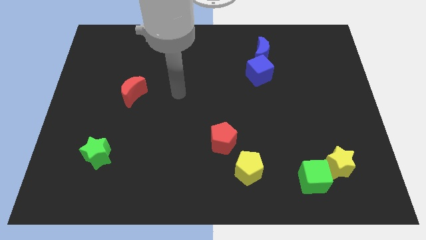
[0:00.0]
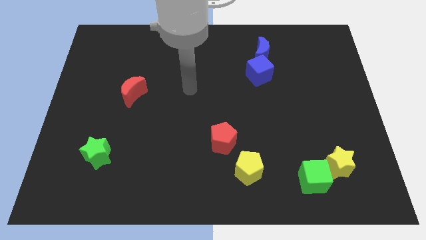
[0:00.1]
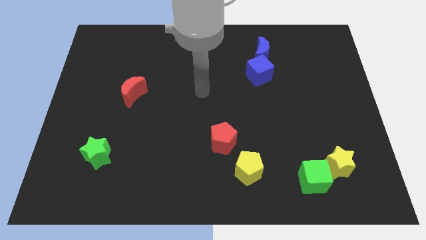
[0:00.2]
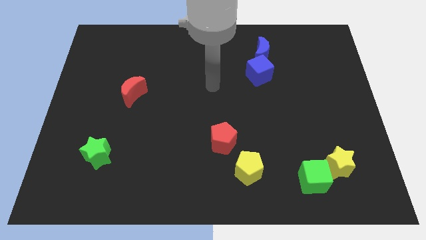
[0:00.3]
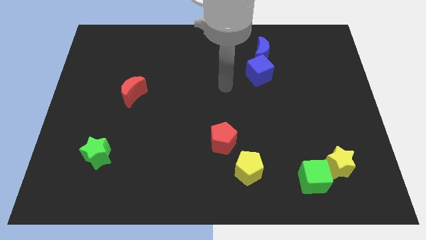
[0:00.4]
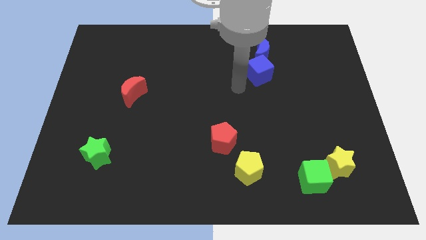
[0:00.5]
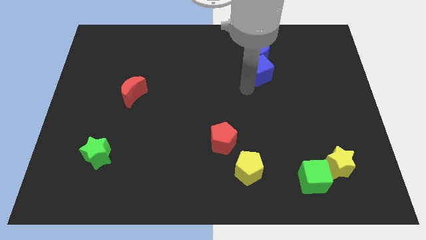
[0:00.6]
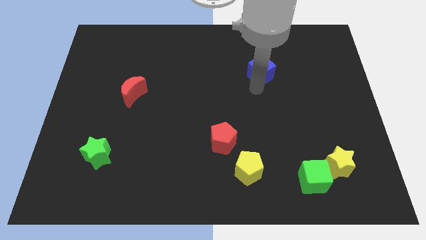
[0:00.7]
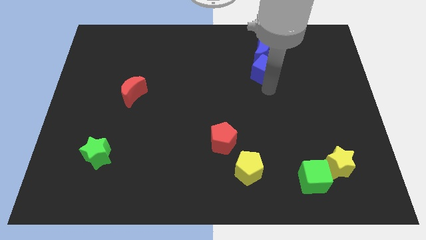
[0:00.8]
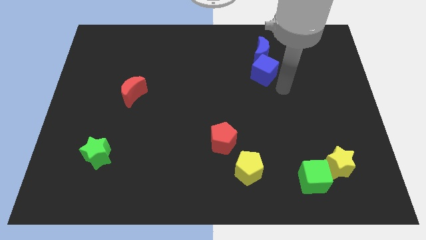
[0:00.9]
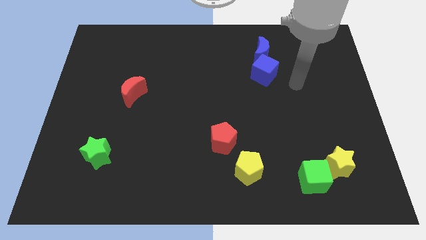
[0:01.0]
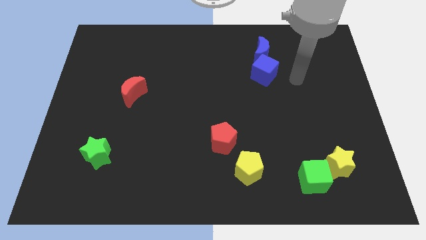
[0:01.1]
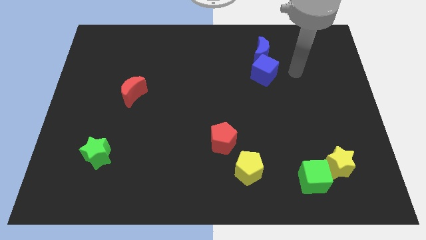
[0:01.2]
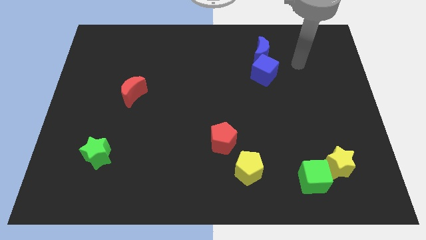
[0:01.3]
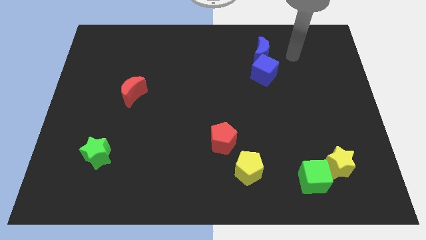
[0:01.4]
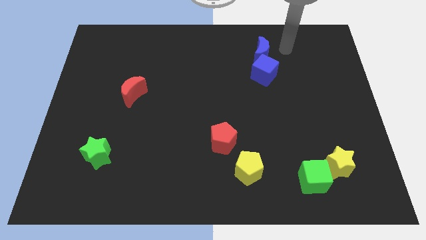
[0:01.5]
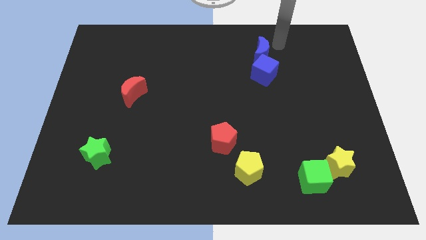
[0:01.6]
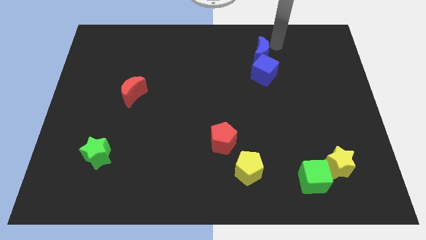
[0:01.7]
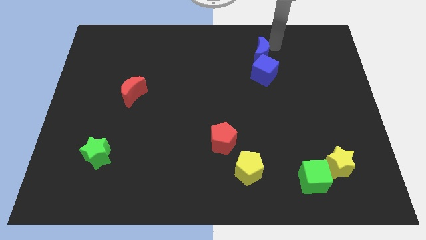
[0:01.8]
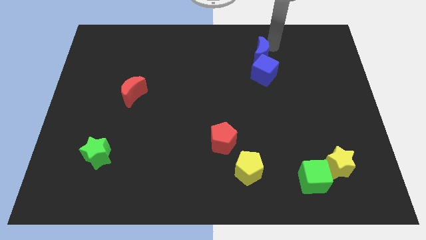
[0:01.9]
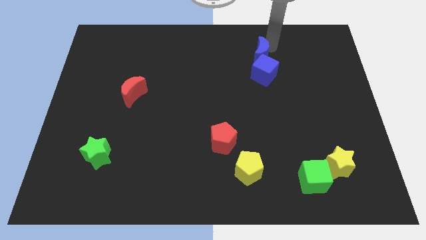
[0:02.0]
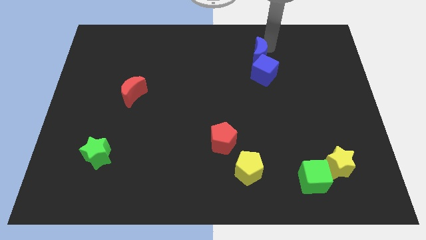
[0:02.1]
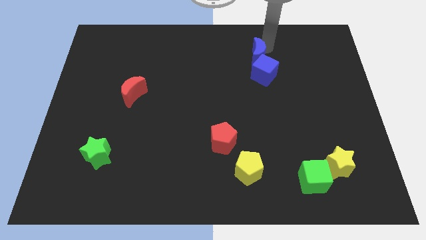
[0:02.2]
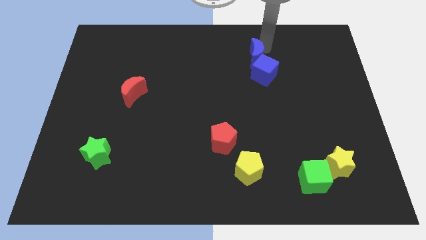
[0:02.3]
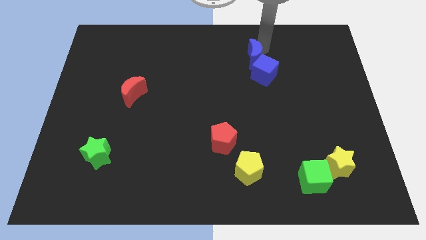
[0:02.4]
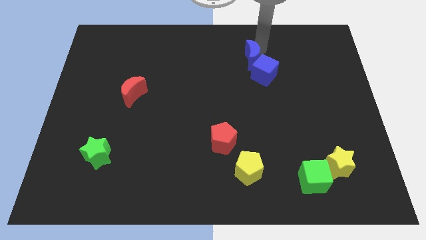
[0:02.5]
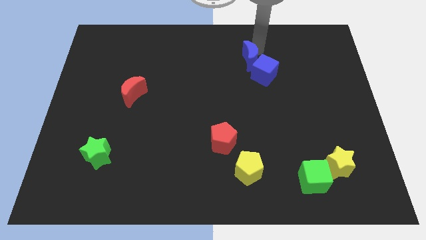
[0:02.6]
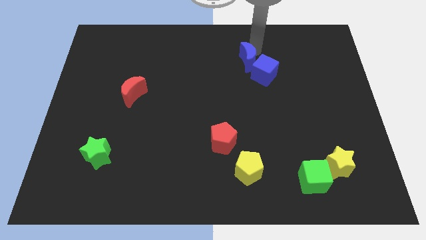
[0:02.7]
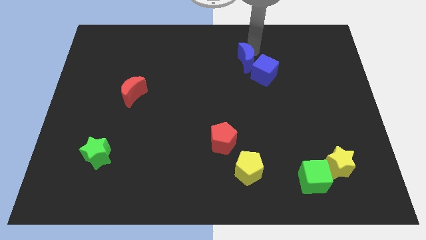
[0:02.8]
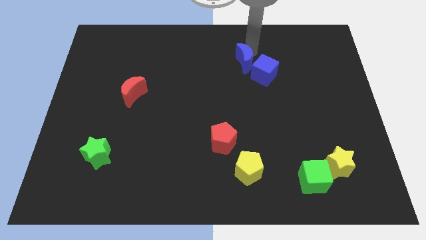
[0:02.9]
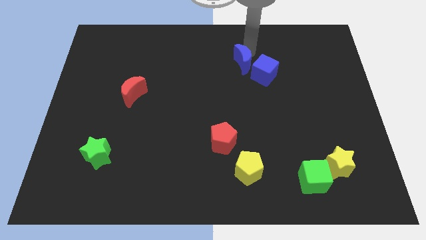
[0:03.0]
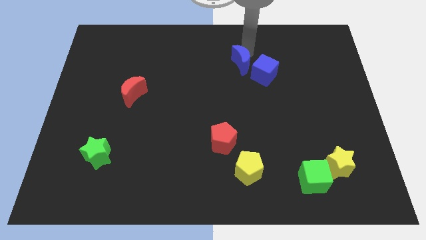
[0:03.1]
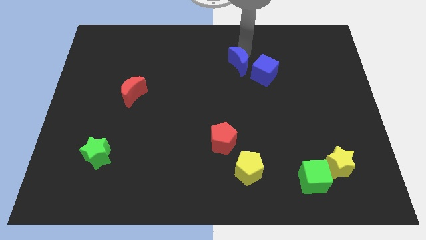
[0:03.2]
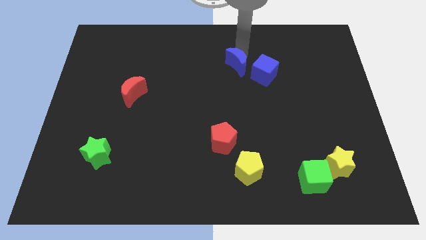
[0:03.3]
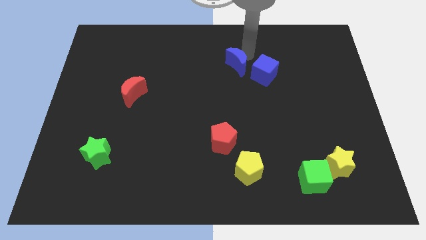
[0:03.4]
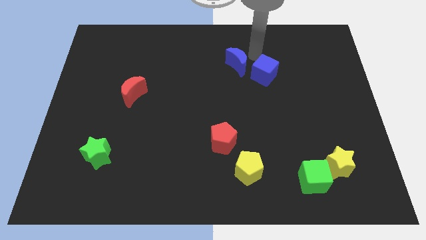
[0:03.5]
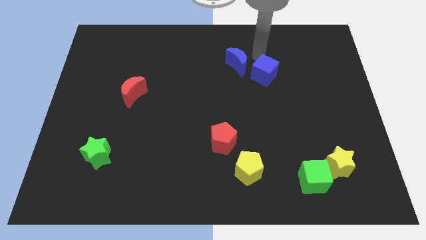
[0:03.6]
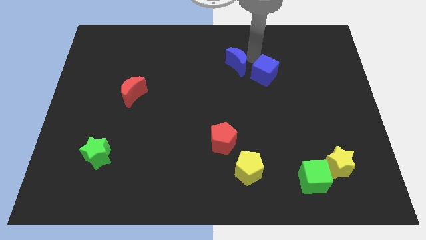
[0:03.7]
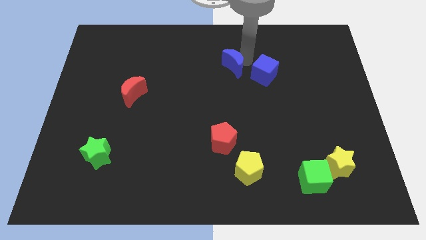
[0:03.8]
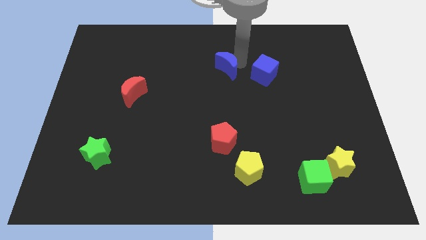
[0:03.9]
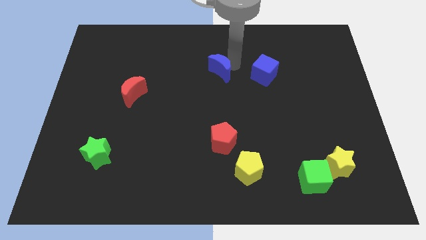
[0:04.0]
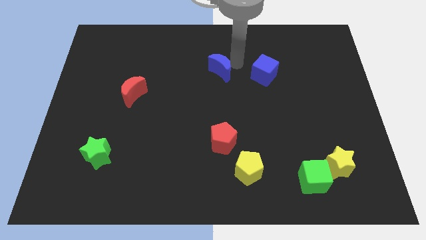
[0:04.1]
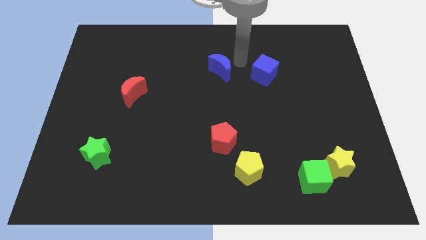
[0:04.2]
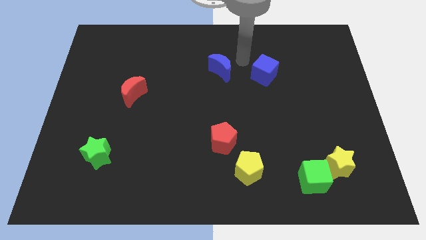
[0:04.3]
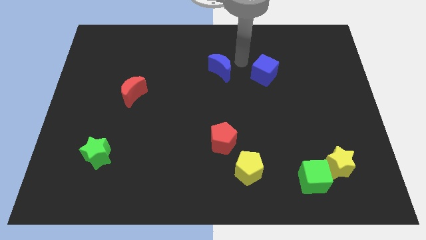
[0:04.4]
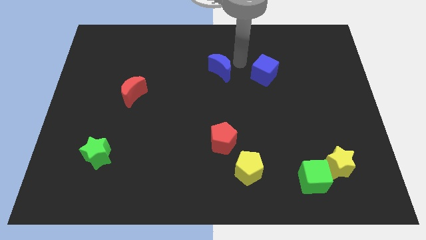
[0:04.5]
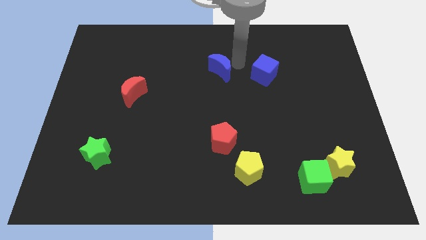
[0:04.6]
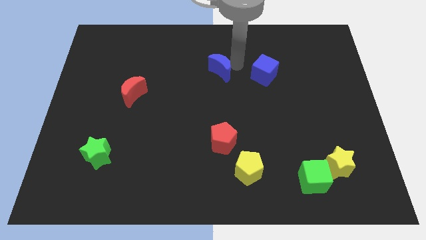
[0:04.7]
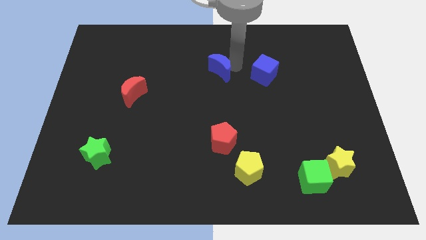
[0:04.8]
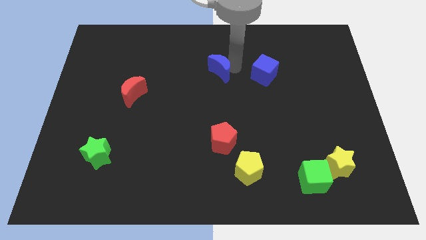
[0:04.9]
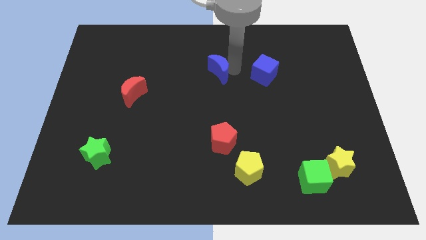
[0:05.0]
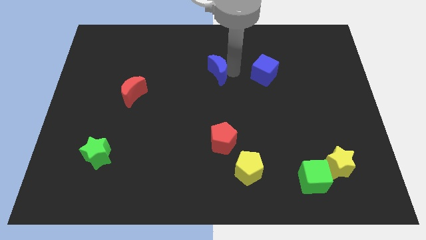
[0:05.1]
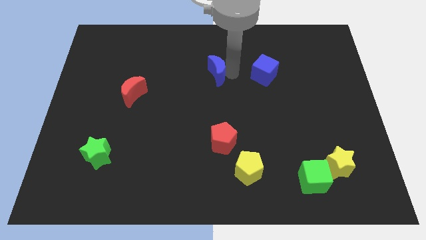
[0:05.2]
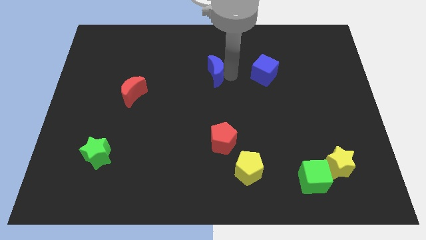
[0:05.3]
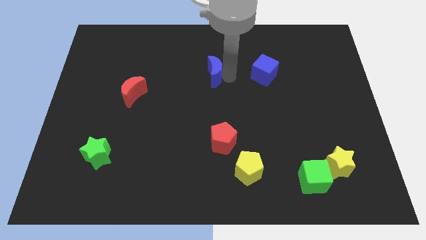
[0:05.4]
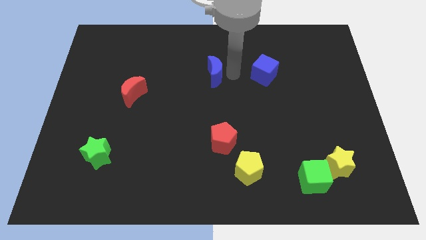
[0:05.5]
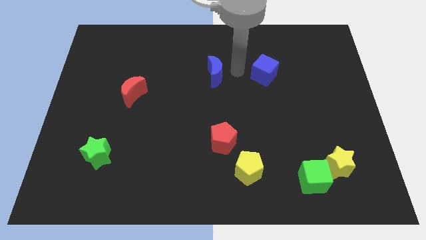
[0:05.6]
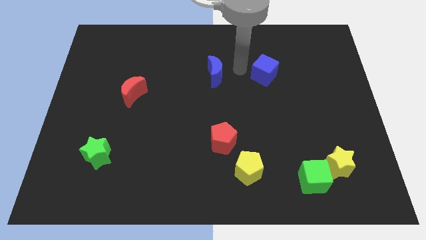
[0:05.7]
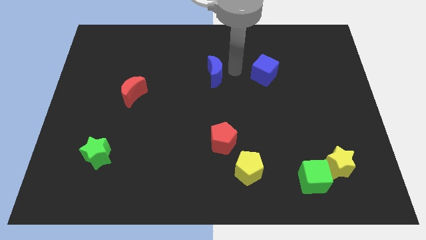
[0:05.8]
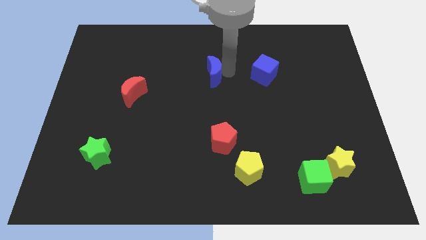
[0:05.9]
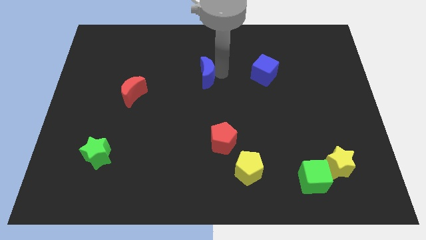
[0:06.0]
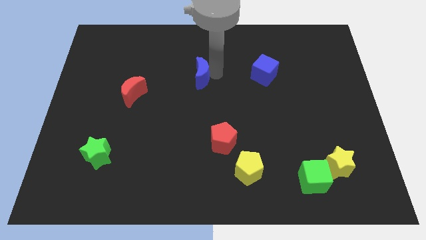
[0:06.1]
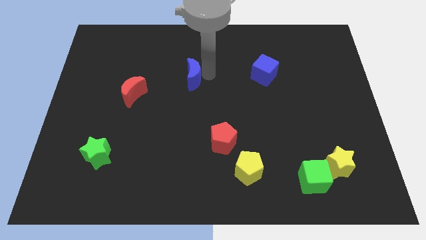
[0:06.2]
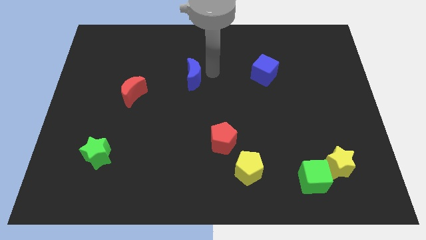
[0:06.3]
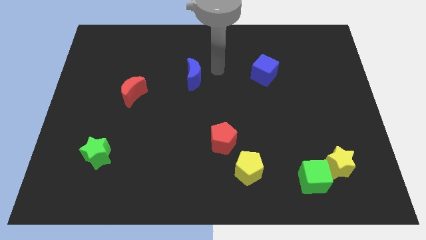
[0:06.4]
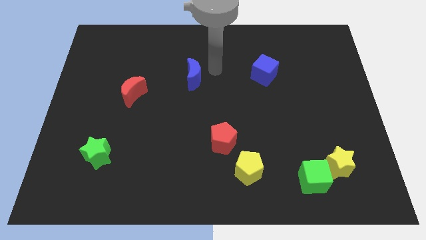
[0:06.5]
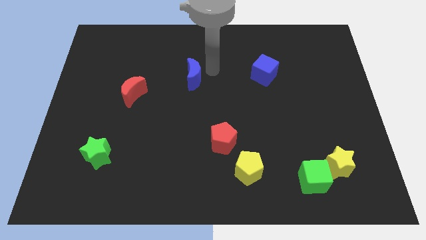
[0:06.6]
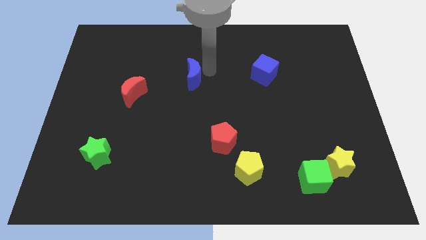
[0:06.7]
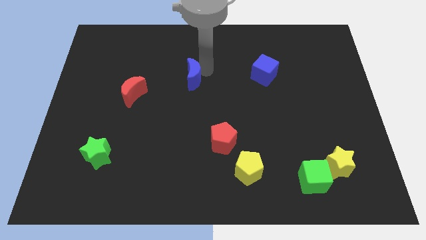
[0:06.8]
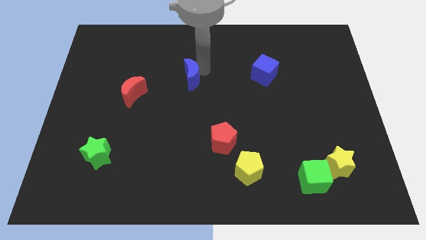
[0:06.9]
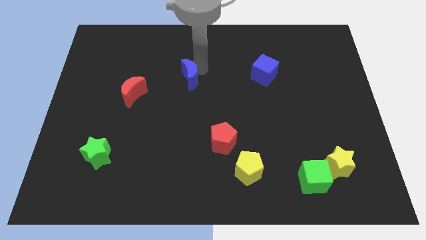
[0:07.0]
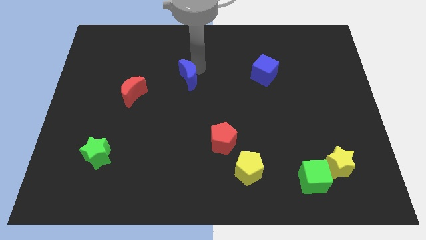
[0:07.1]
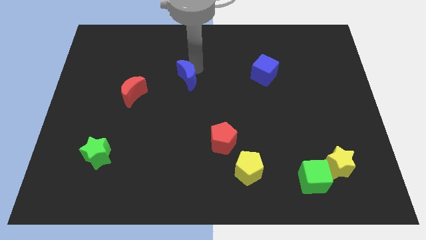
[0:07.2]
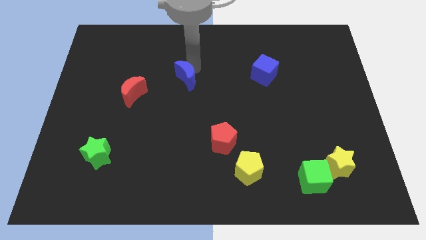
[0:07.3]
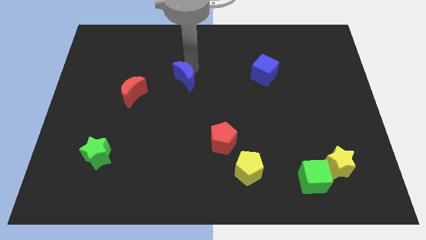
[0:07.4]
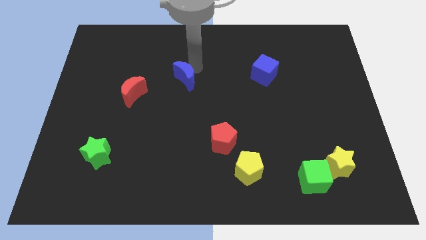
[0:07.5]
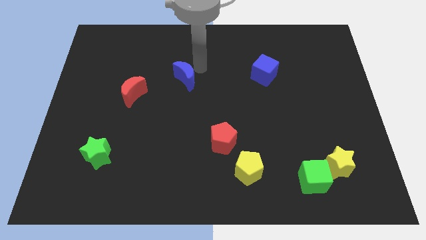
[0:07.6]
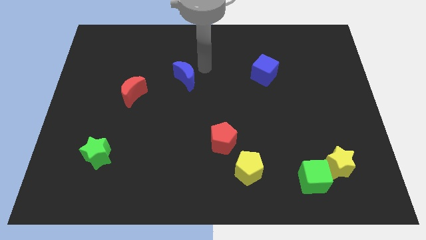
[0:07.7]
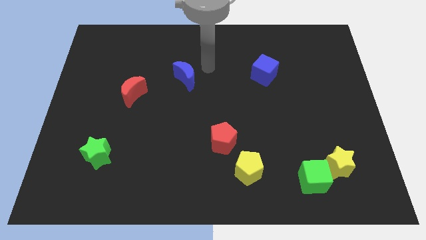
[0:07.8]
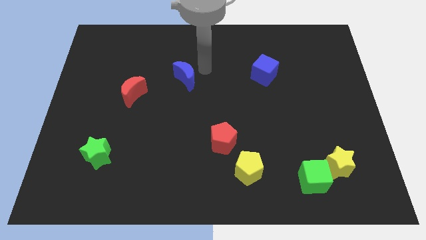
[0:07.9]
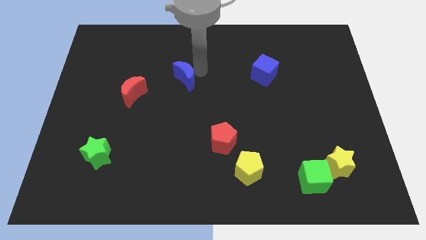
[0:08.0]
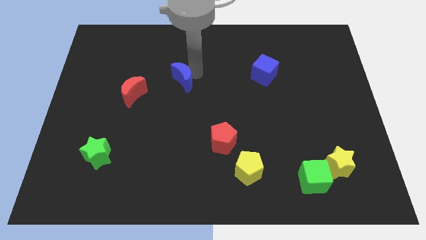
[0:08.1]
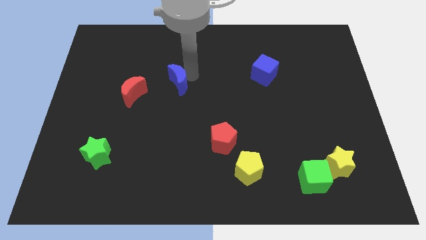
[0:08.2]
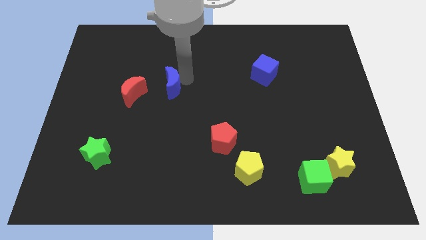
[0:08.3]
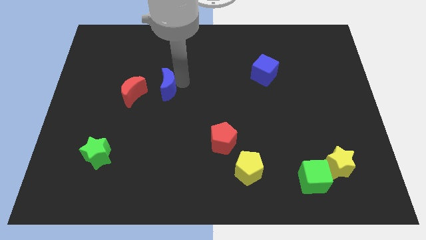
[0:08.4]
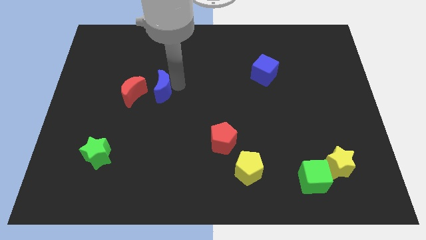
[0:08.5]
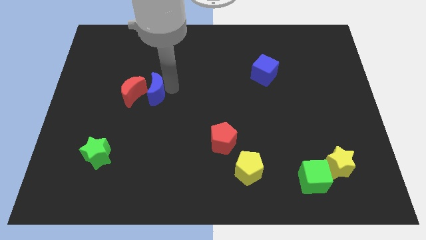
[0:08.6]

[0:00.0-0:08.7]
move the blue moon close to the red moon
